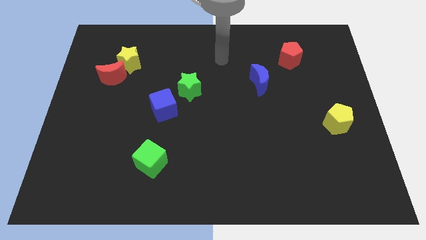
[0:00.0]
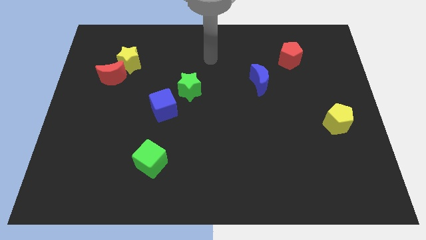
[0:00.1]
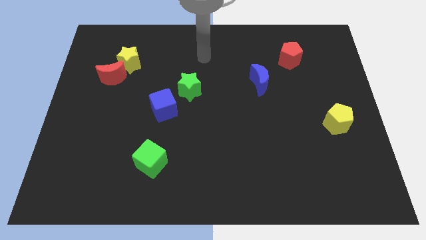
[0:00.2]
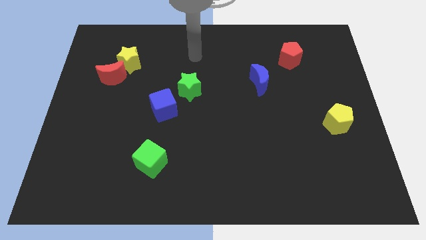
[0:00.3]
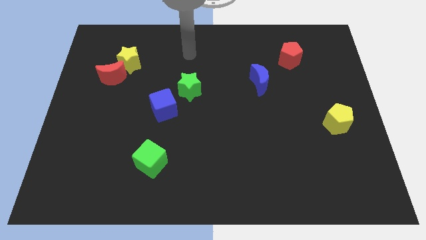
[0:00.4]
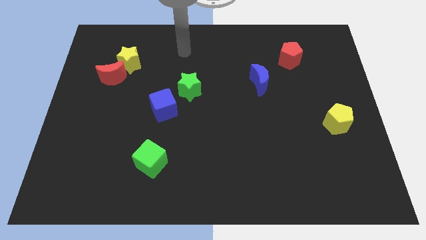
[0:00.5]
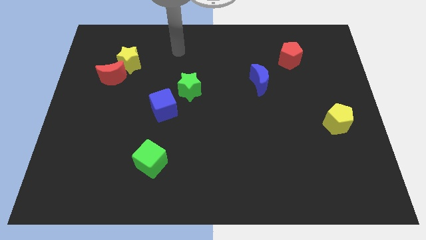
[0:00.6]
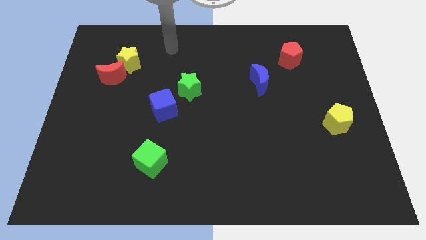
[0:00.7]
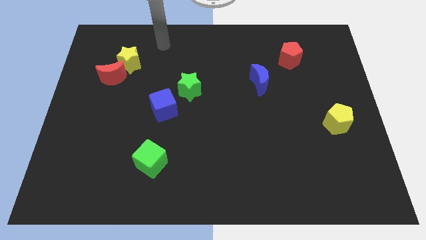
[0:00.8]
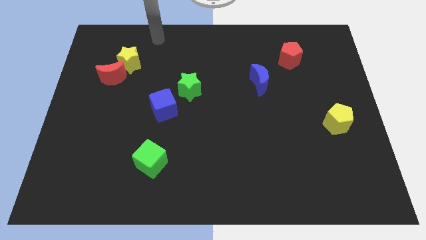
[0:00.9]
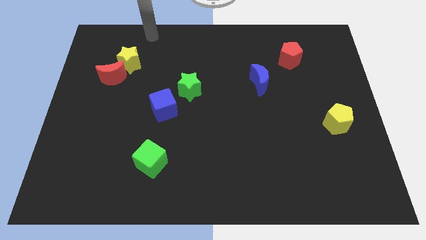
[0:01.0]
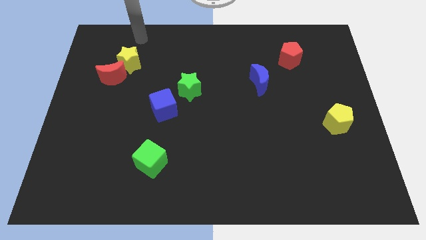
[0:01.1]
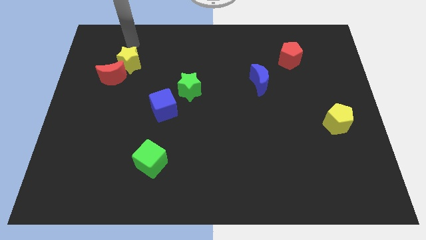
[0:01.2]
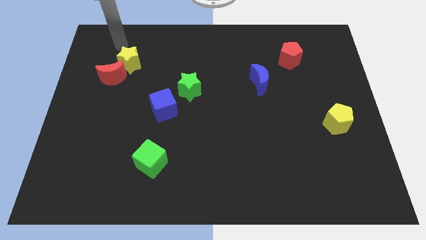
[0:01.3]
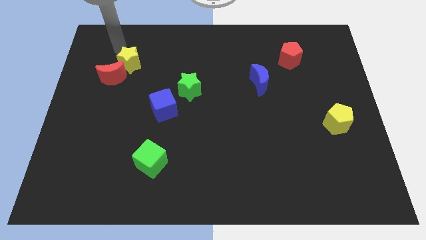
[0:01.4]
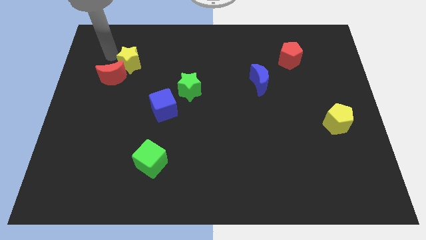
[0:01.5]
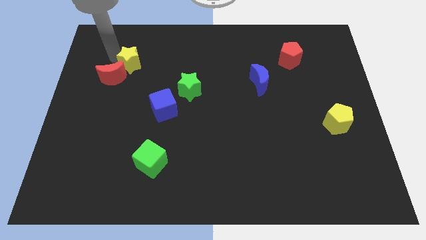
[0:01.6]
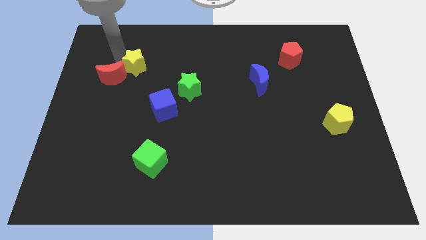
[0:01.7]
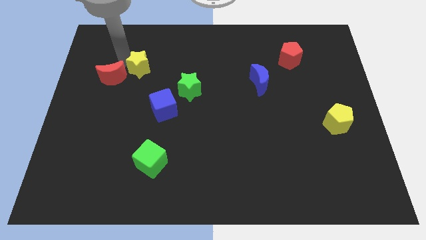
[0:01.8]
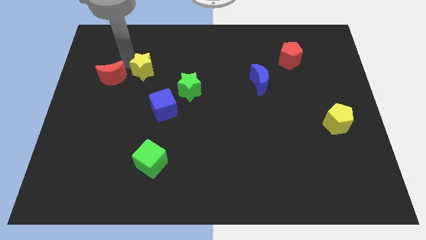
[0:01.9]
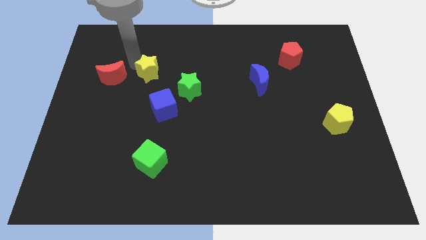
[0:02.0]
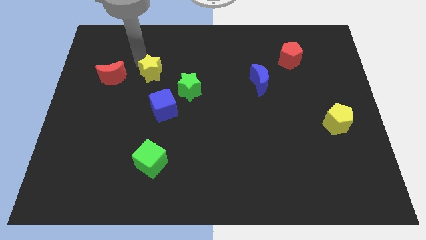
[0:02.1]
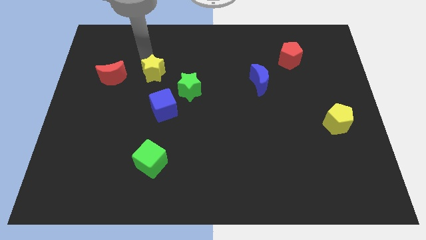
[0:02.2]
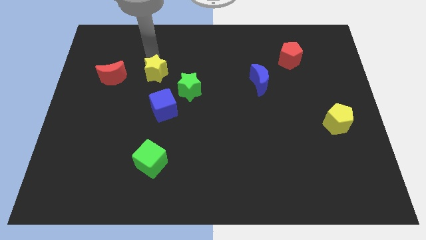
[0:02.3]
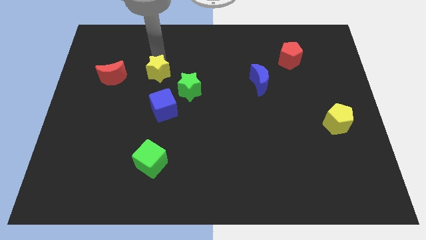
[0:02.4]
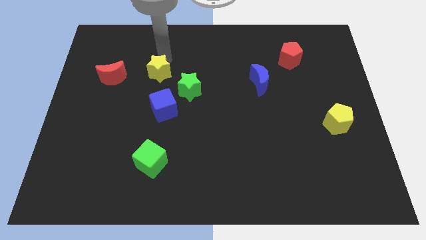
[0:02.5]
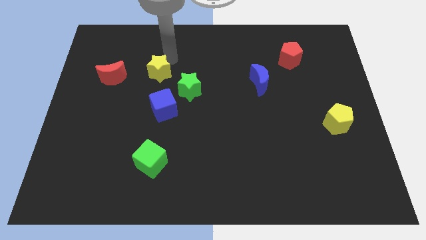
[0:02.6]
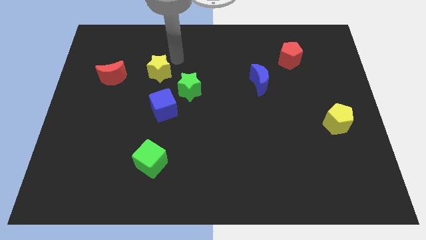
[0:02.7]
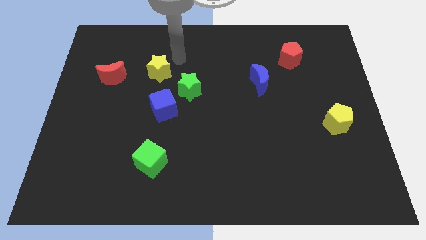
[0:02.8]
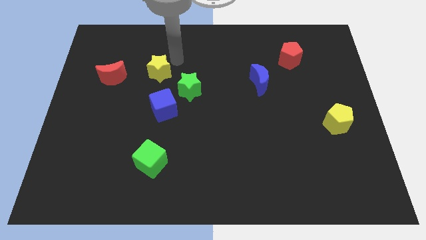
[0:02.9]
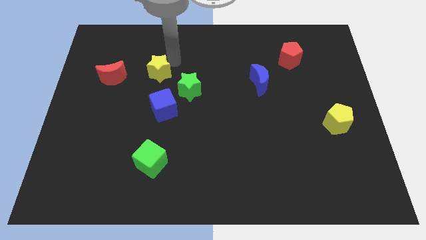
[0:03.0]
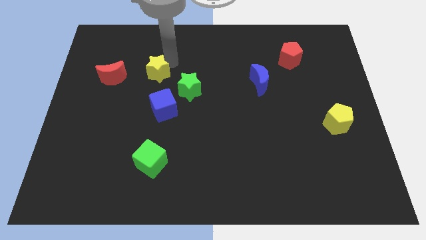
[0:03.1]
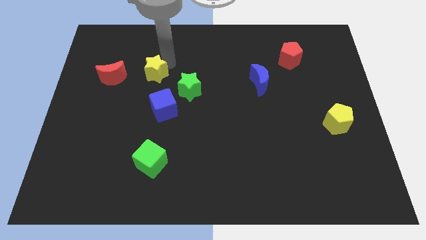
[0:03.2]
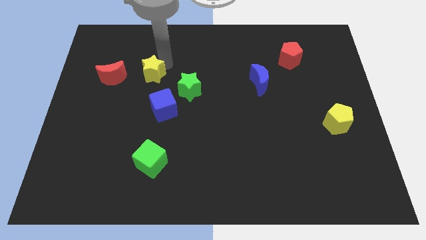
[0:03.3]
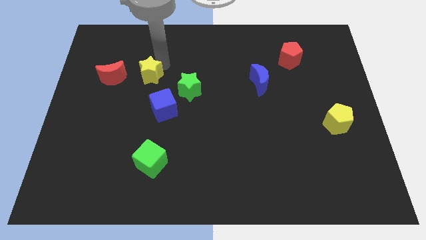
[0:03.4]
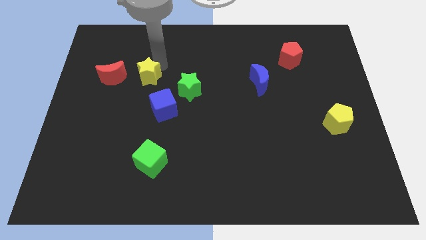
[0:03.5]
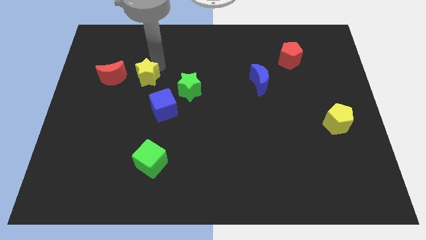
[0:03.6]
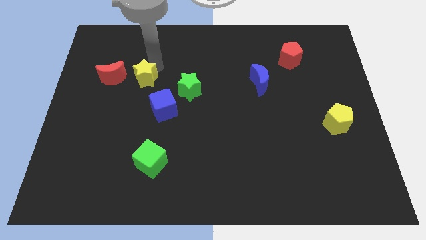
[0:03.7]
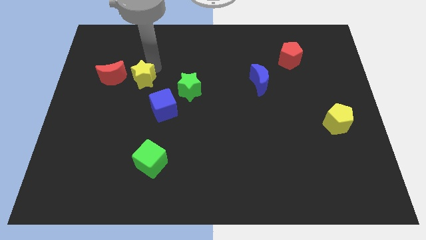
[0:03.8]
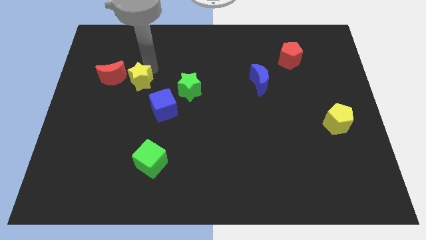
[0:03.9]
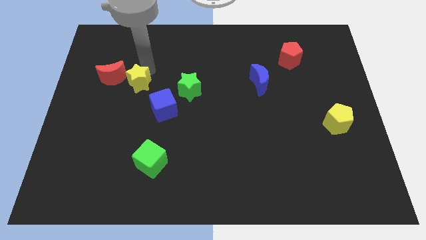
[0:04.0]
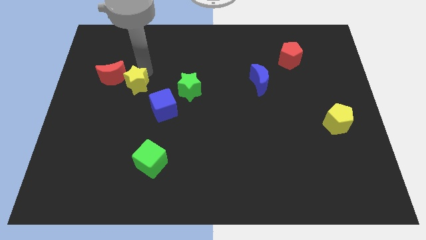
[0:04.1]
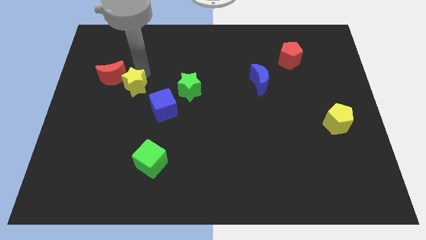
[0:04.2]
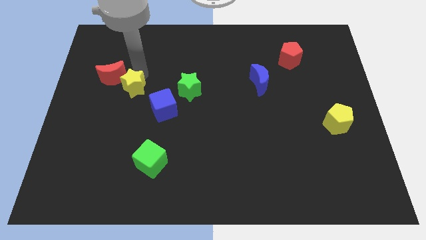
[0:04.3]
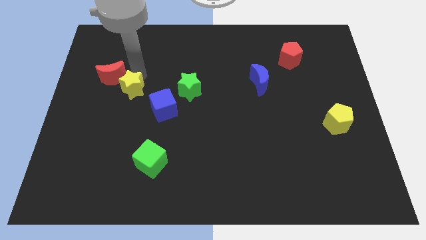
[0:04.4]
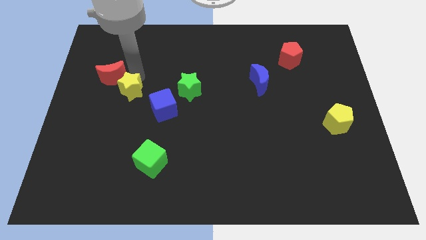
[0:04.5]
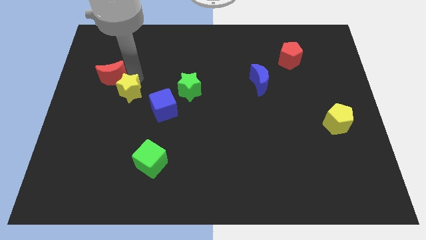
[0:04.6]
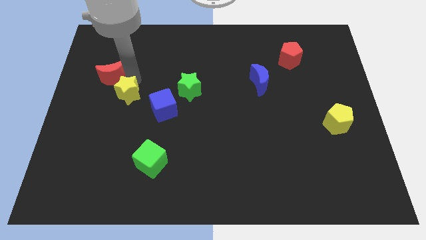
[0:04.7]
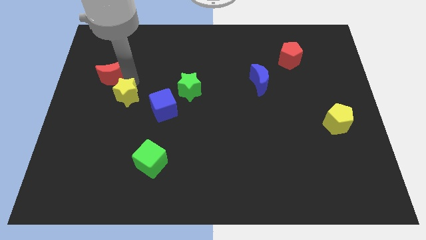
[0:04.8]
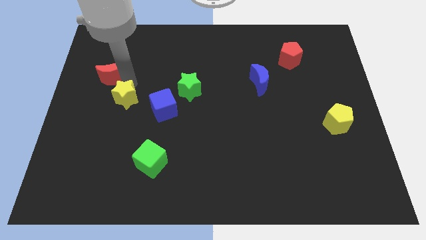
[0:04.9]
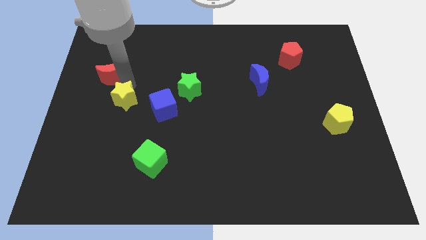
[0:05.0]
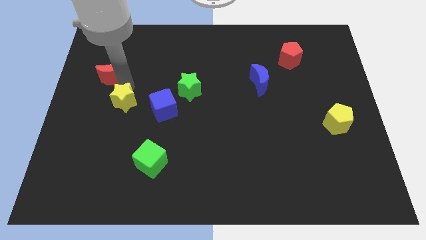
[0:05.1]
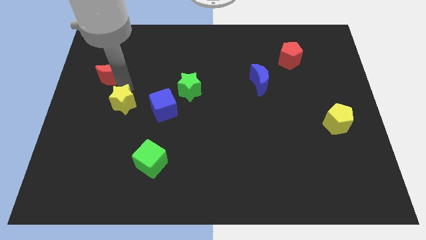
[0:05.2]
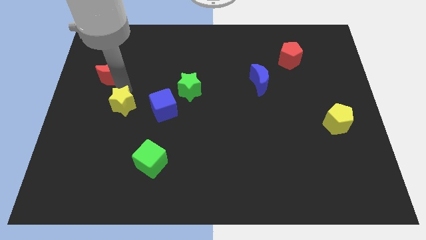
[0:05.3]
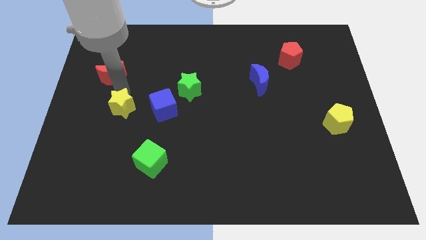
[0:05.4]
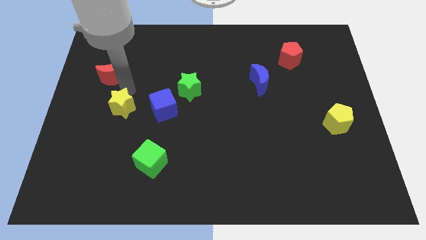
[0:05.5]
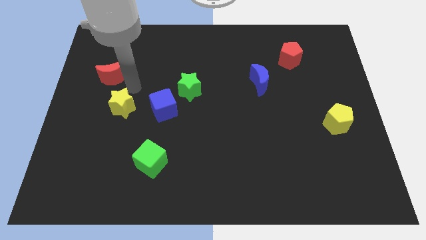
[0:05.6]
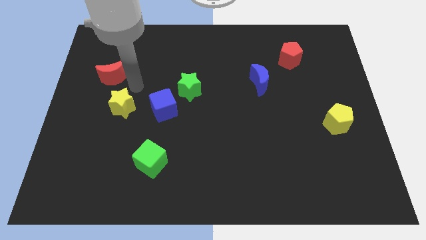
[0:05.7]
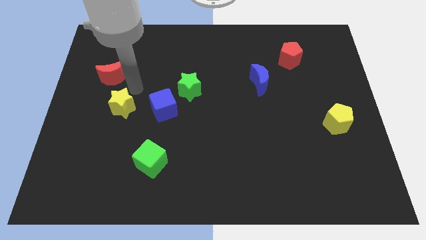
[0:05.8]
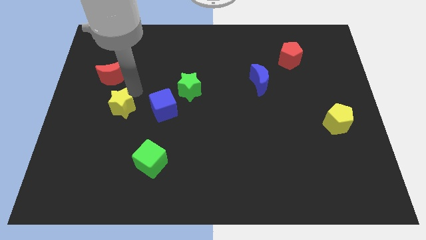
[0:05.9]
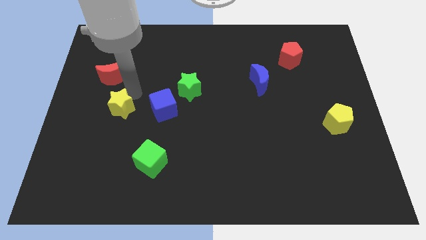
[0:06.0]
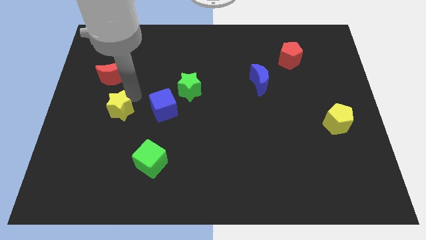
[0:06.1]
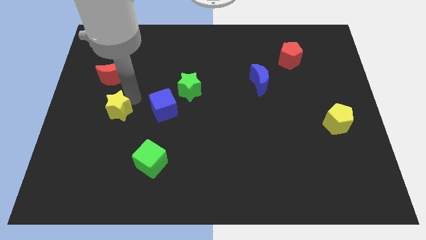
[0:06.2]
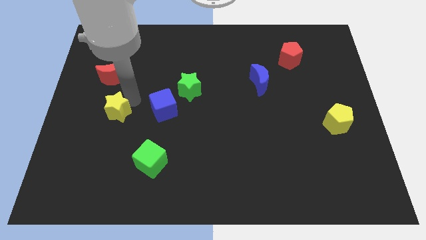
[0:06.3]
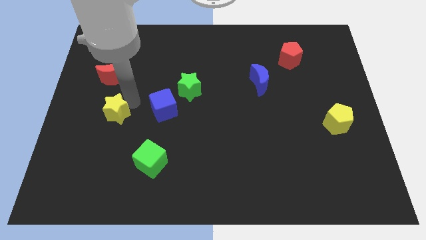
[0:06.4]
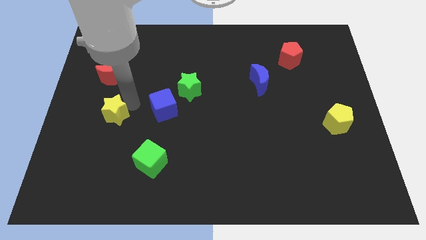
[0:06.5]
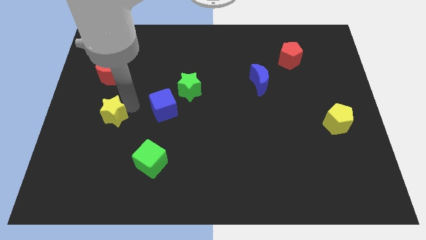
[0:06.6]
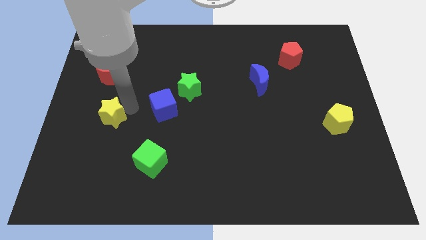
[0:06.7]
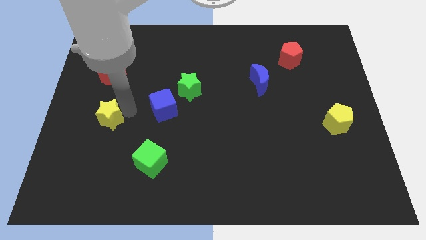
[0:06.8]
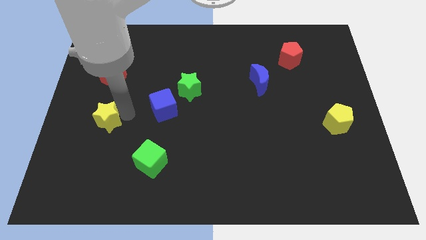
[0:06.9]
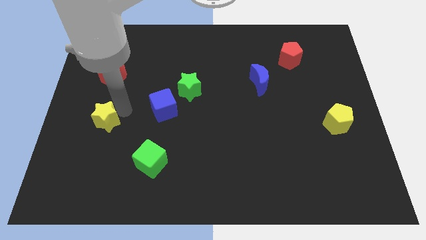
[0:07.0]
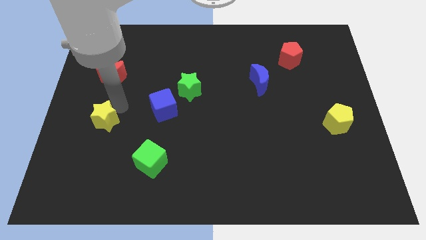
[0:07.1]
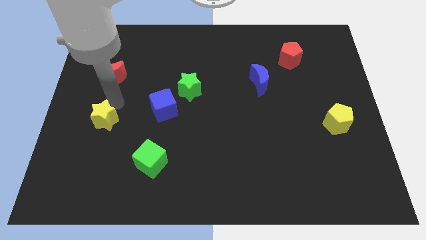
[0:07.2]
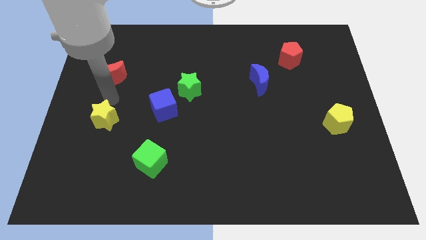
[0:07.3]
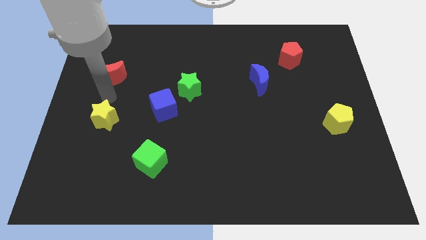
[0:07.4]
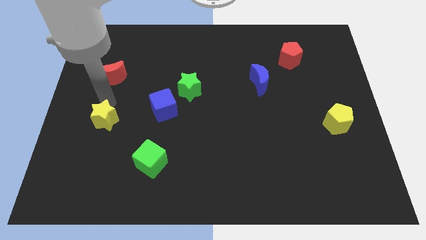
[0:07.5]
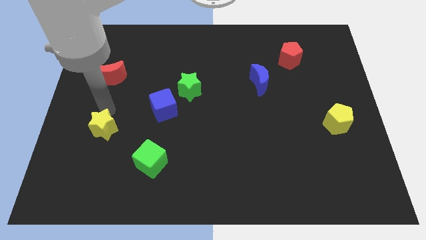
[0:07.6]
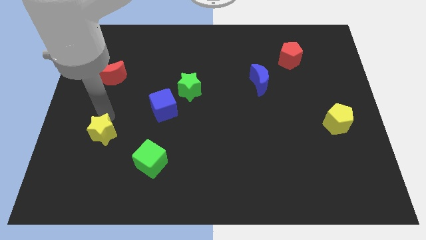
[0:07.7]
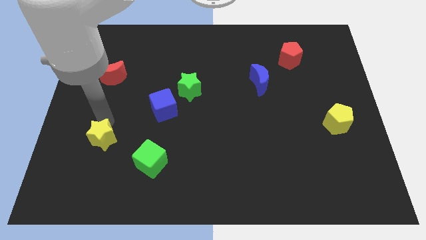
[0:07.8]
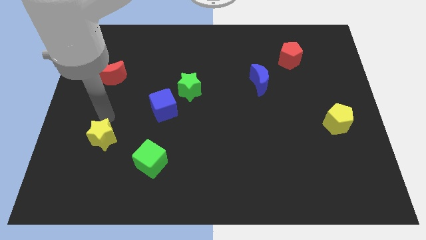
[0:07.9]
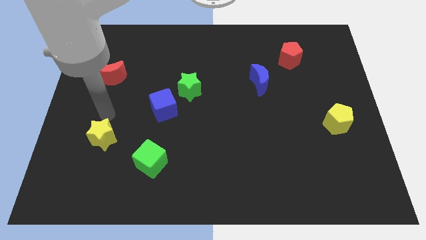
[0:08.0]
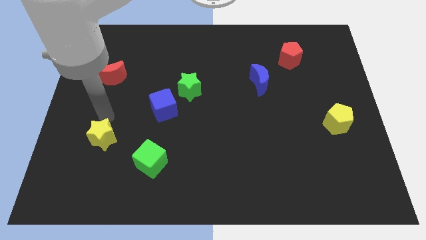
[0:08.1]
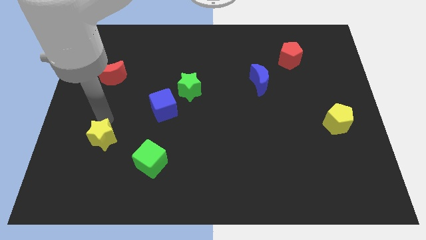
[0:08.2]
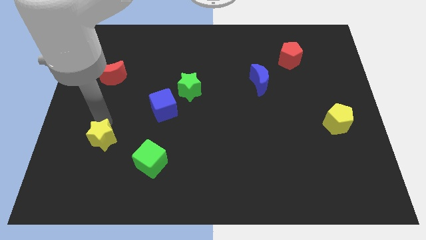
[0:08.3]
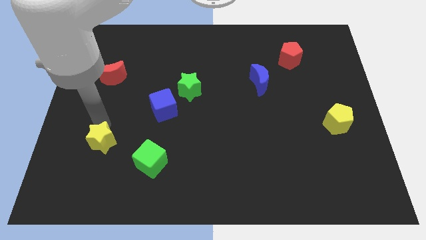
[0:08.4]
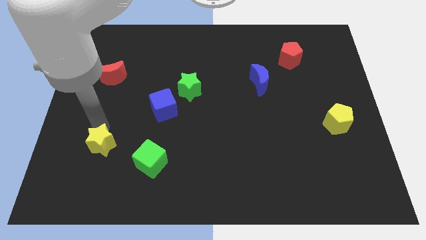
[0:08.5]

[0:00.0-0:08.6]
put the yellow star just left of the green cube
